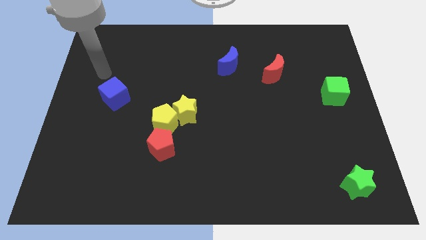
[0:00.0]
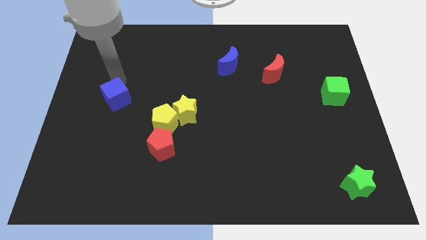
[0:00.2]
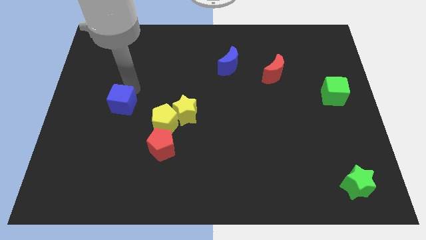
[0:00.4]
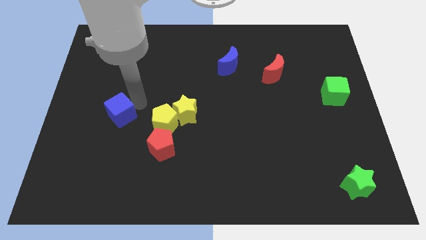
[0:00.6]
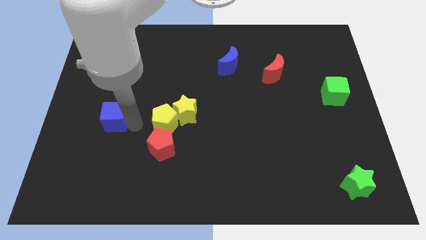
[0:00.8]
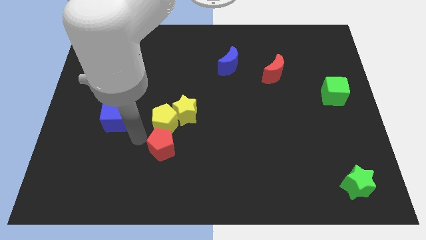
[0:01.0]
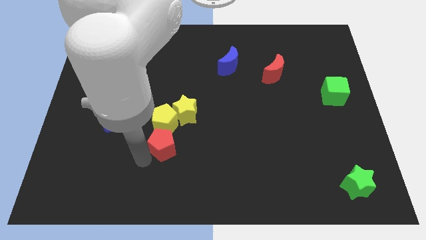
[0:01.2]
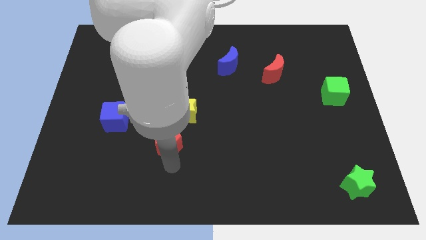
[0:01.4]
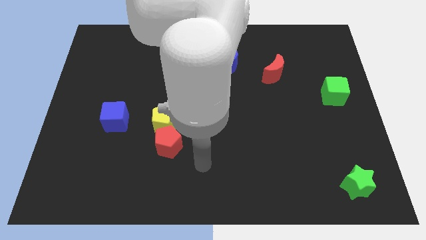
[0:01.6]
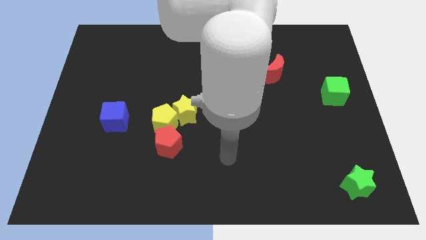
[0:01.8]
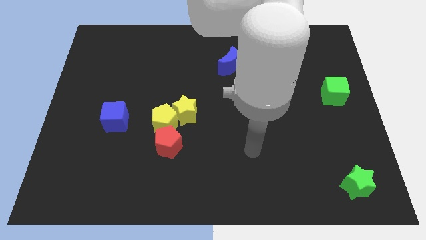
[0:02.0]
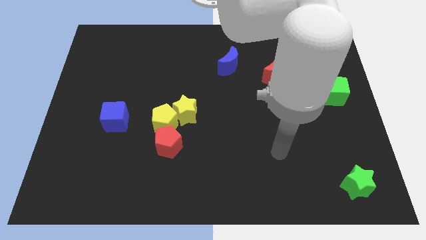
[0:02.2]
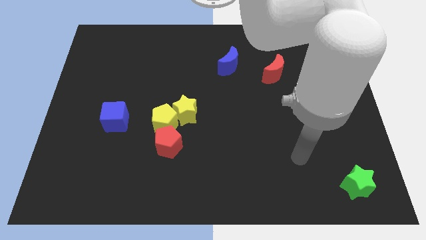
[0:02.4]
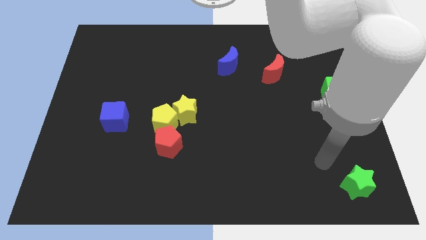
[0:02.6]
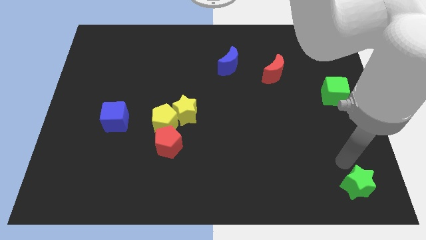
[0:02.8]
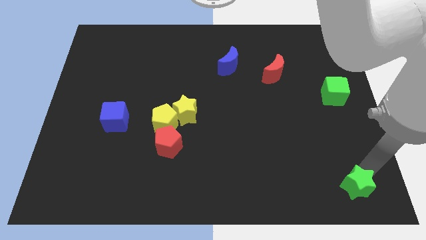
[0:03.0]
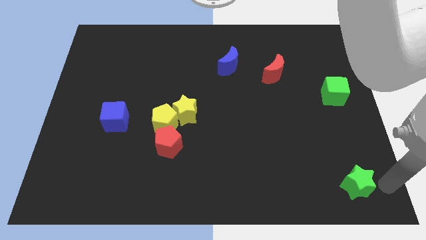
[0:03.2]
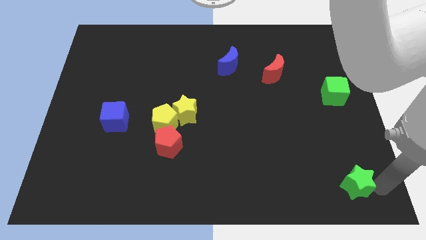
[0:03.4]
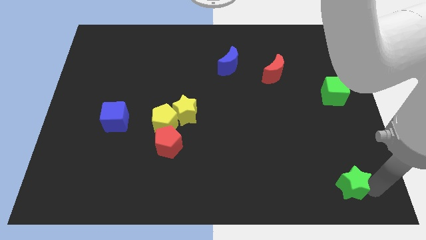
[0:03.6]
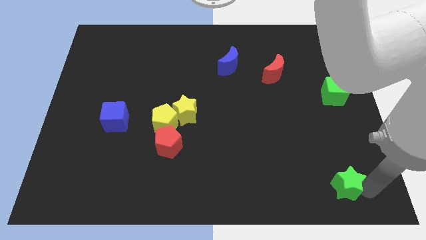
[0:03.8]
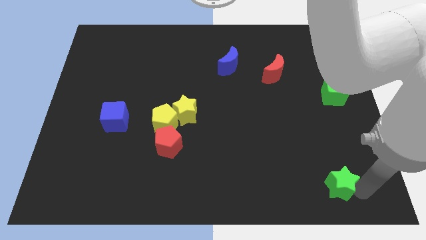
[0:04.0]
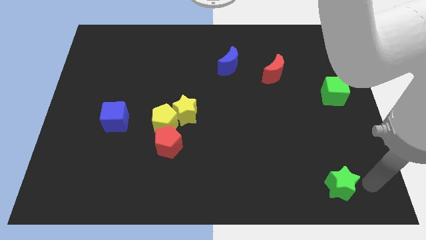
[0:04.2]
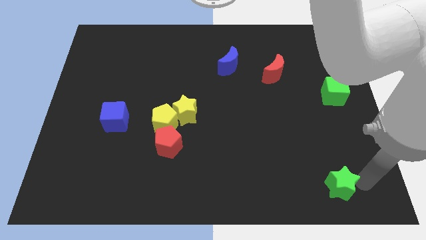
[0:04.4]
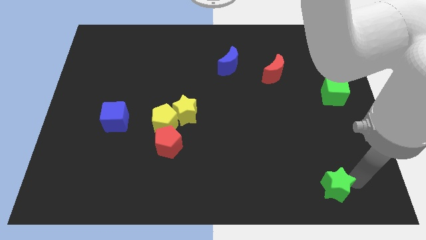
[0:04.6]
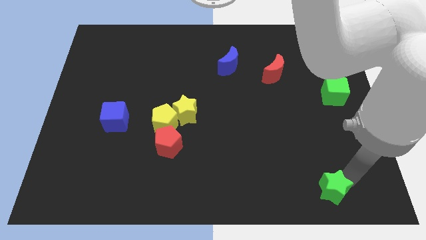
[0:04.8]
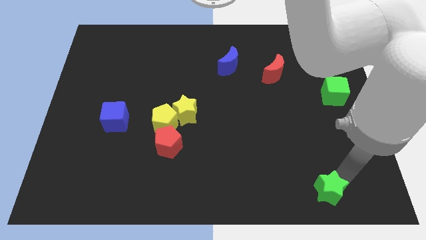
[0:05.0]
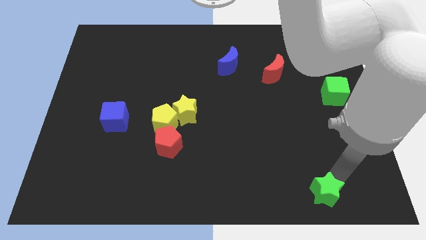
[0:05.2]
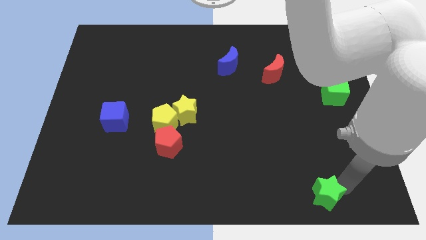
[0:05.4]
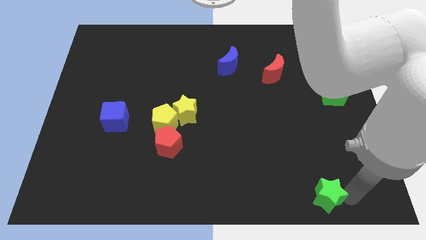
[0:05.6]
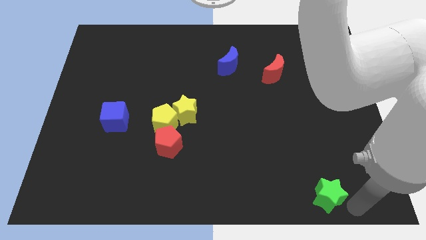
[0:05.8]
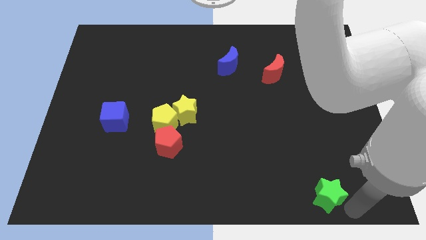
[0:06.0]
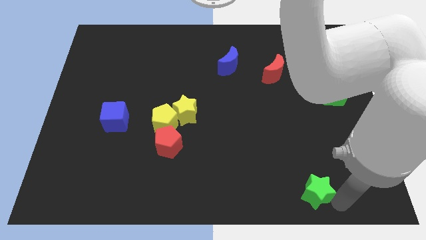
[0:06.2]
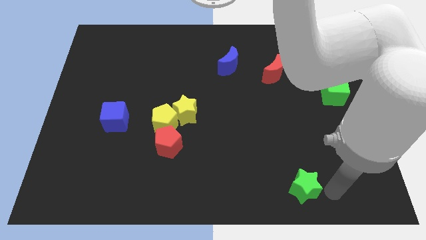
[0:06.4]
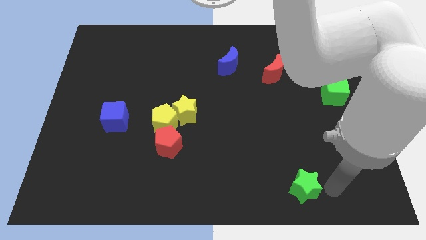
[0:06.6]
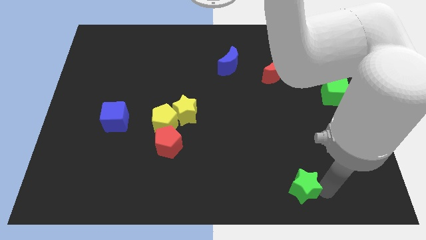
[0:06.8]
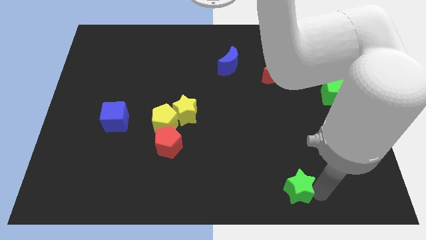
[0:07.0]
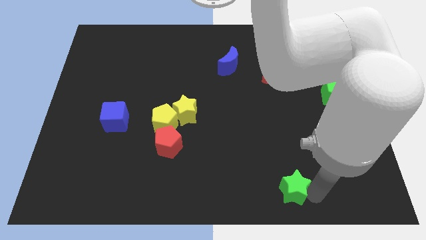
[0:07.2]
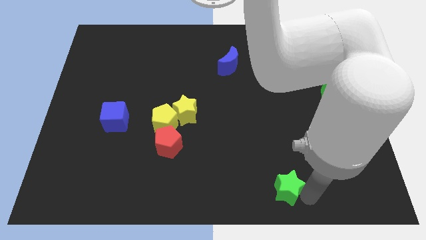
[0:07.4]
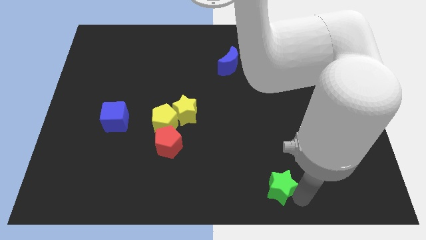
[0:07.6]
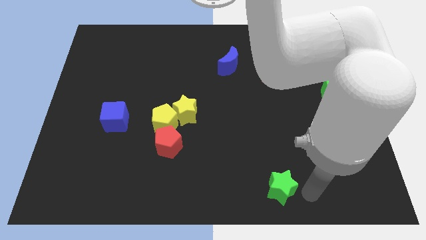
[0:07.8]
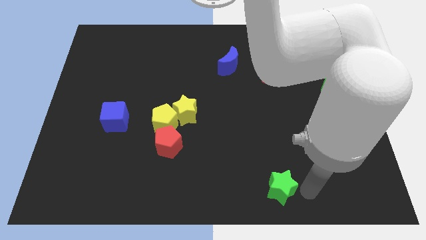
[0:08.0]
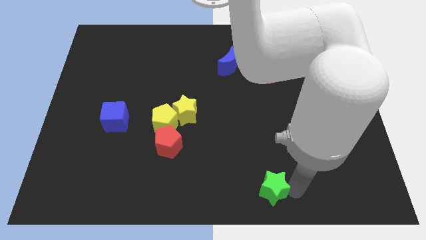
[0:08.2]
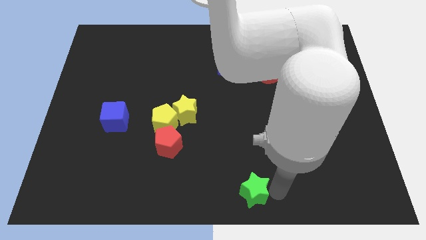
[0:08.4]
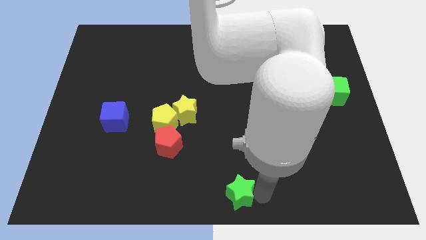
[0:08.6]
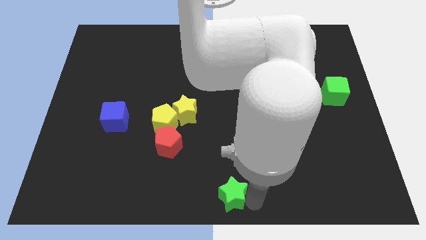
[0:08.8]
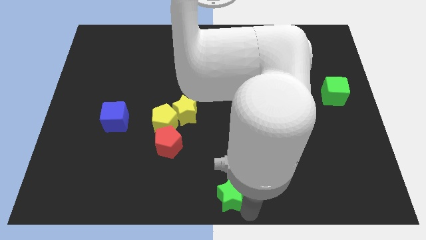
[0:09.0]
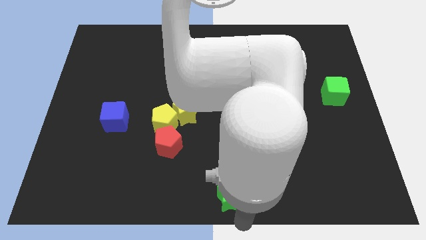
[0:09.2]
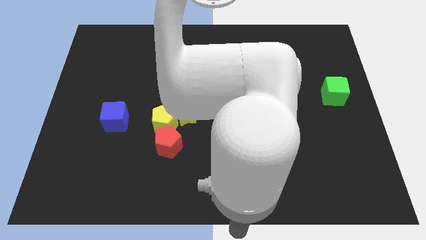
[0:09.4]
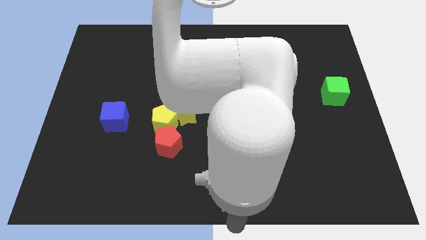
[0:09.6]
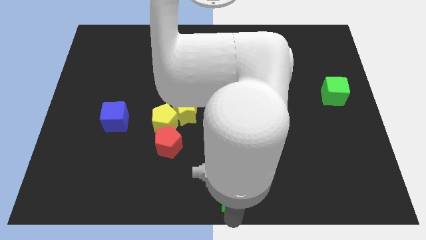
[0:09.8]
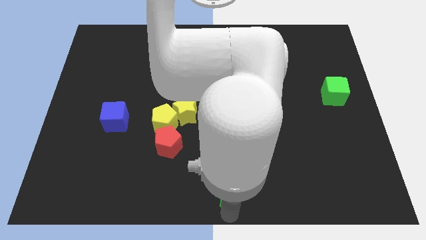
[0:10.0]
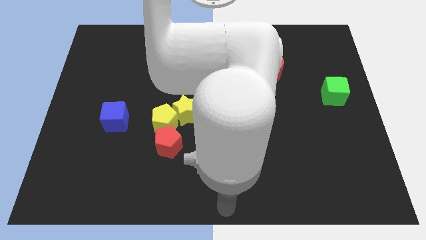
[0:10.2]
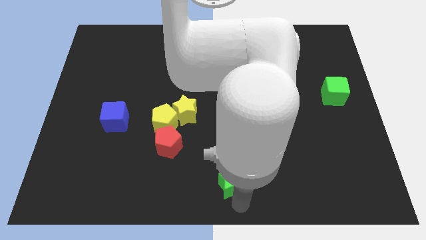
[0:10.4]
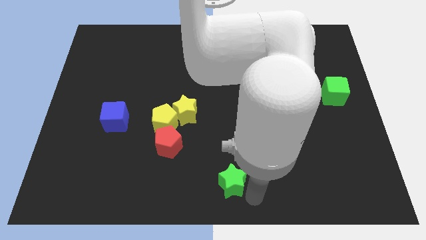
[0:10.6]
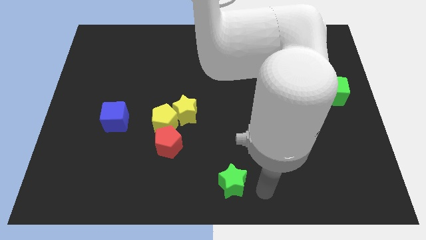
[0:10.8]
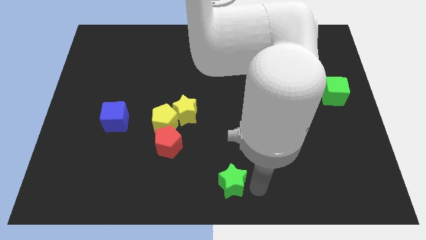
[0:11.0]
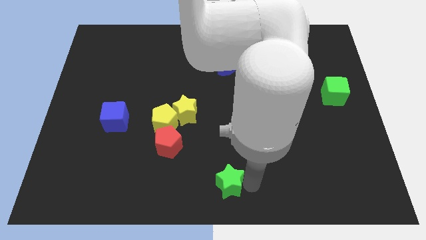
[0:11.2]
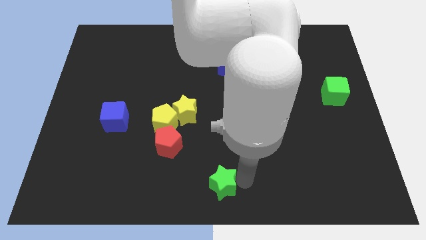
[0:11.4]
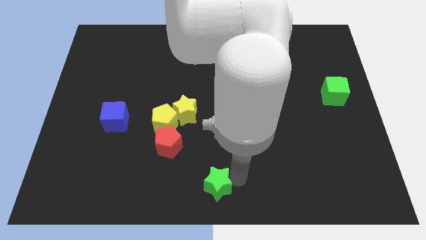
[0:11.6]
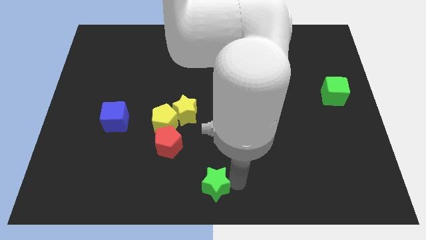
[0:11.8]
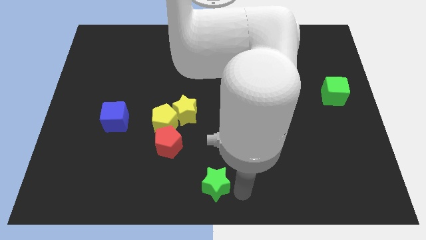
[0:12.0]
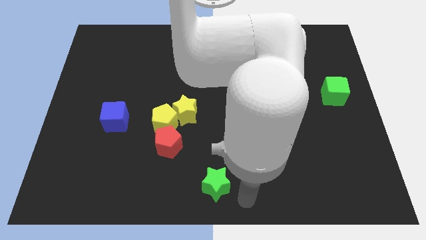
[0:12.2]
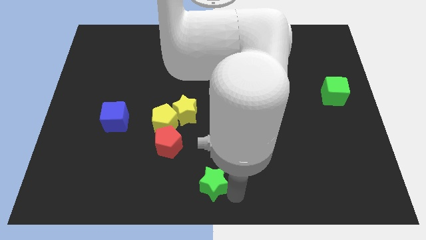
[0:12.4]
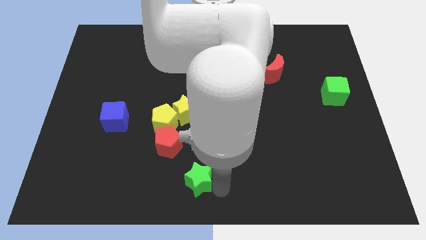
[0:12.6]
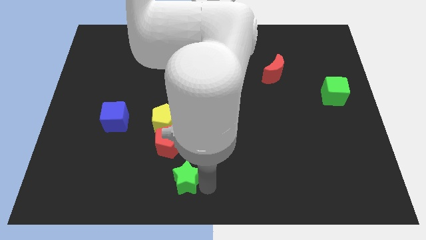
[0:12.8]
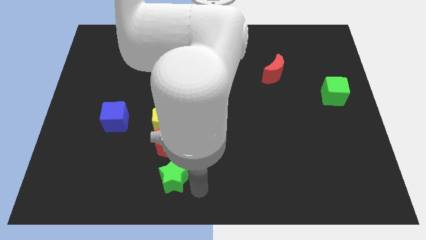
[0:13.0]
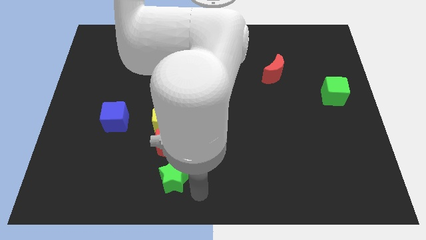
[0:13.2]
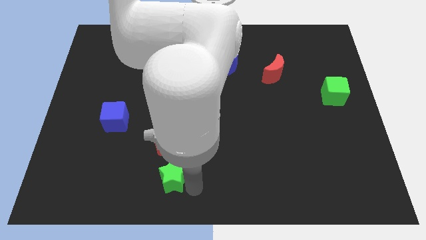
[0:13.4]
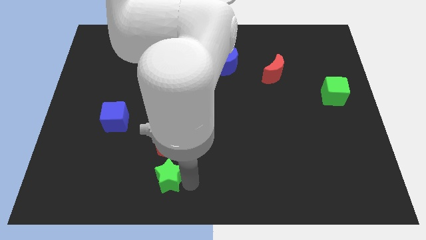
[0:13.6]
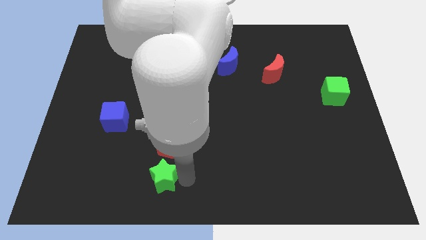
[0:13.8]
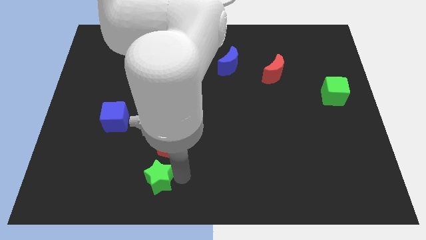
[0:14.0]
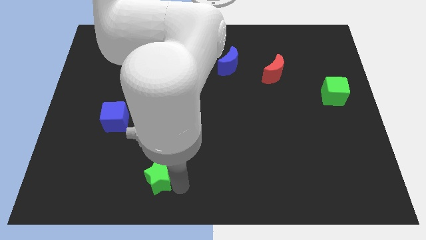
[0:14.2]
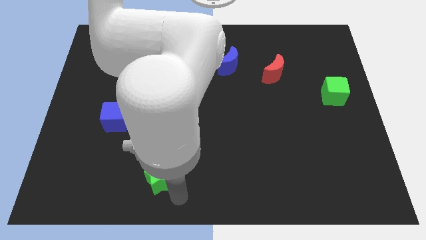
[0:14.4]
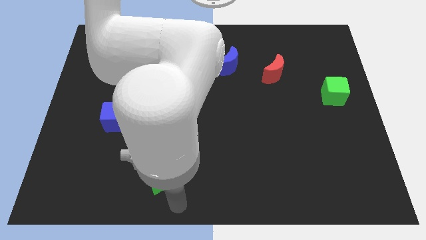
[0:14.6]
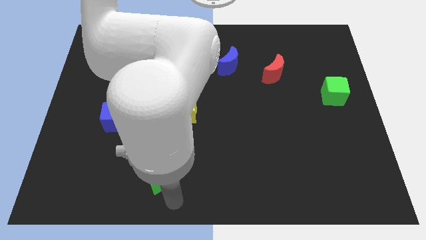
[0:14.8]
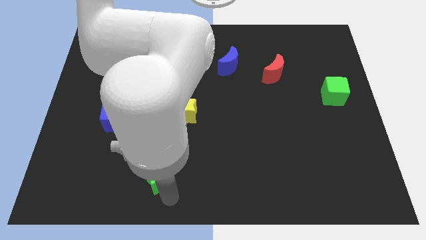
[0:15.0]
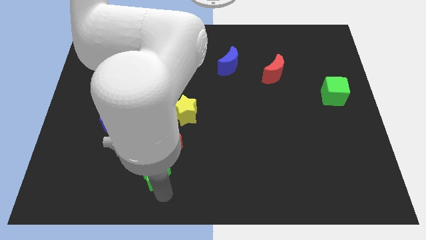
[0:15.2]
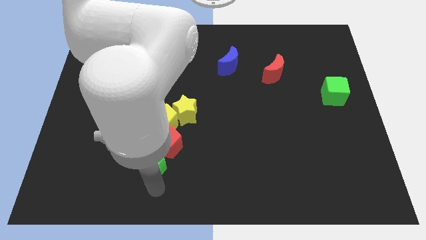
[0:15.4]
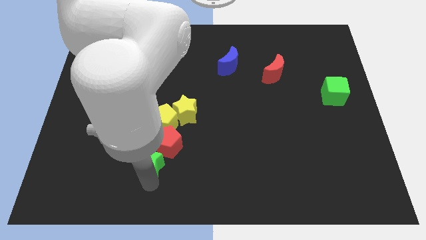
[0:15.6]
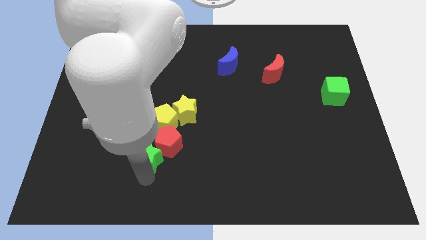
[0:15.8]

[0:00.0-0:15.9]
put the green star to the bottom left side of the yellow pentagon
